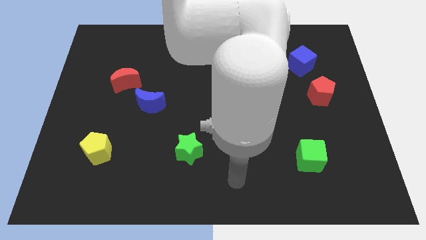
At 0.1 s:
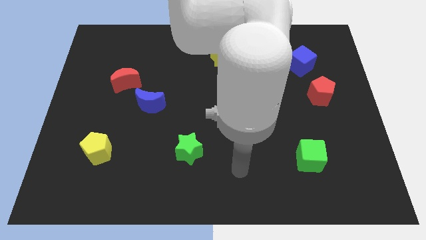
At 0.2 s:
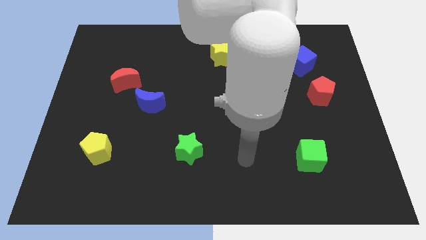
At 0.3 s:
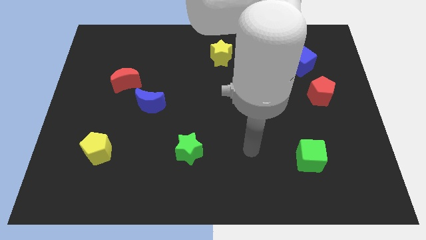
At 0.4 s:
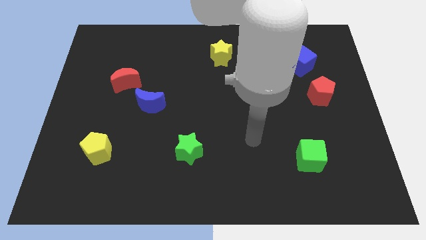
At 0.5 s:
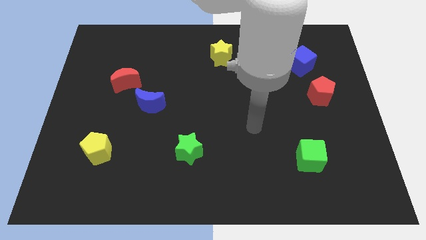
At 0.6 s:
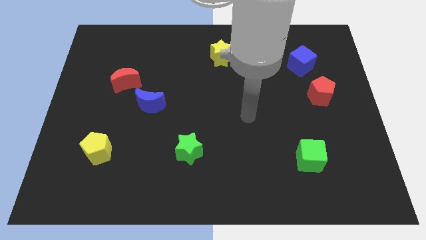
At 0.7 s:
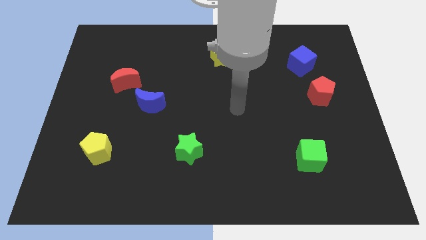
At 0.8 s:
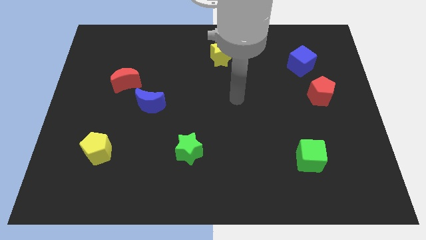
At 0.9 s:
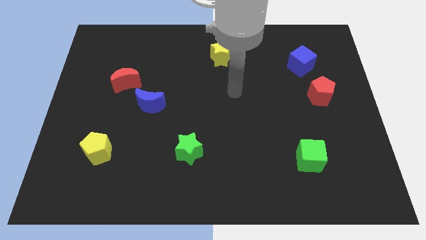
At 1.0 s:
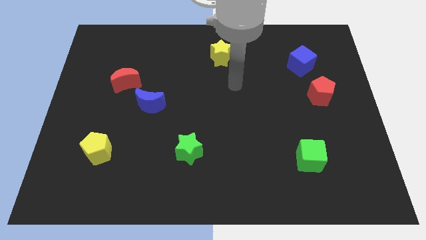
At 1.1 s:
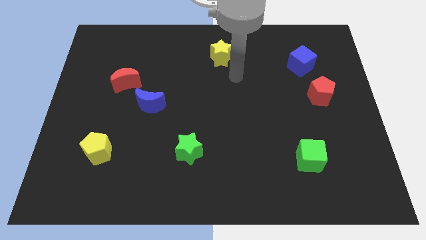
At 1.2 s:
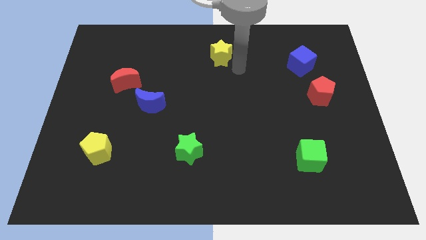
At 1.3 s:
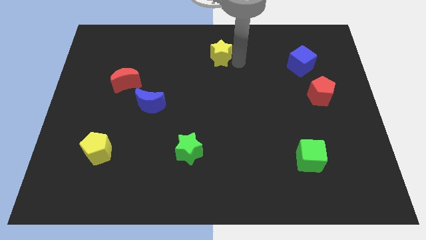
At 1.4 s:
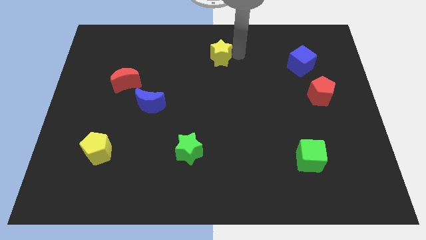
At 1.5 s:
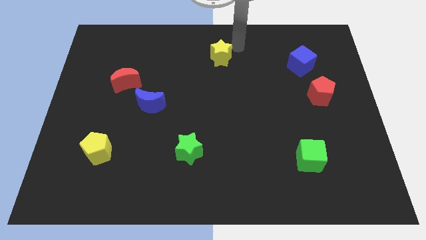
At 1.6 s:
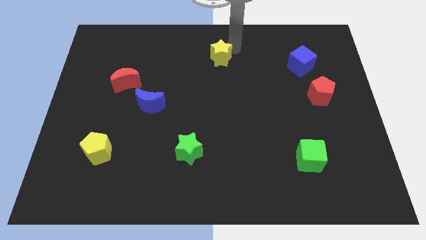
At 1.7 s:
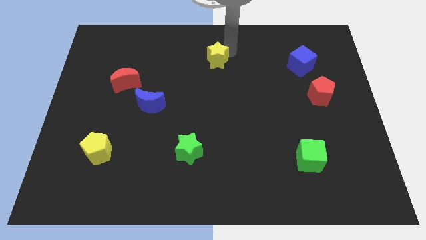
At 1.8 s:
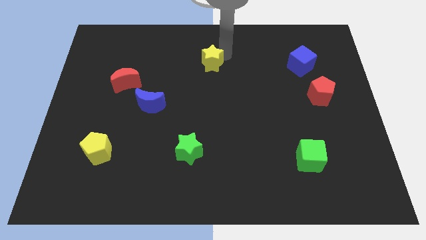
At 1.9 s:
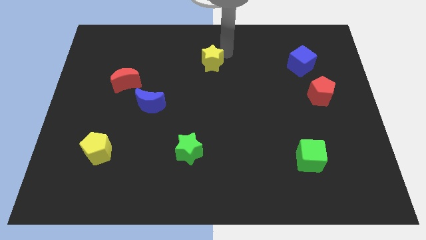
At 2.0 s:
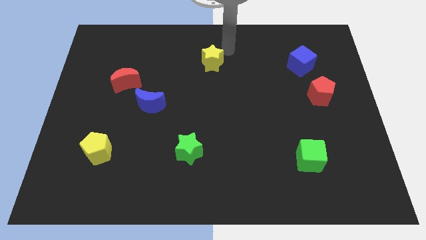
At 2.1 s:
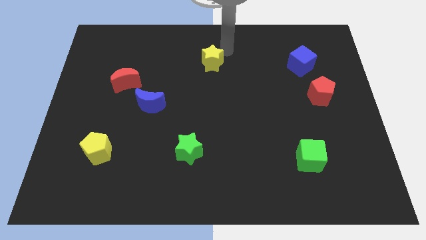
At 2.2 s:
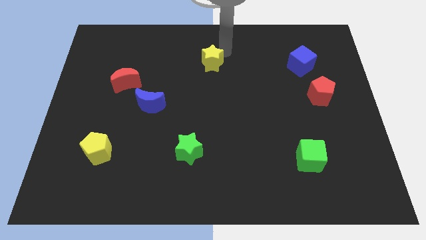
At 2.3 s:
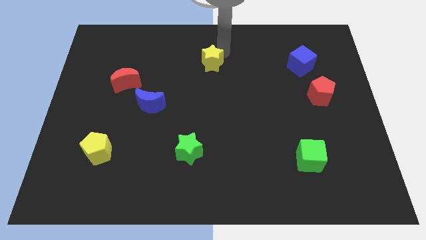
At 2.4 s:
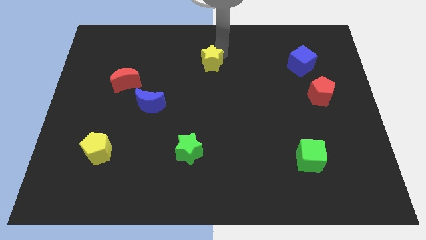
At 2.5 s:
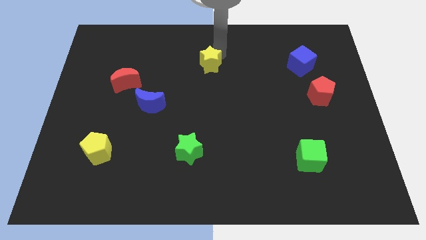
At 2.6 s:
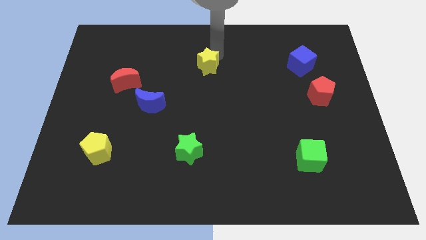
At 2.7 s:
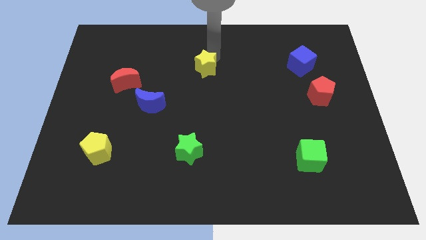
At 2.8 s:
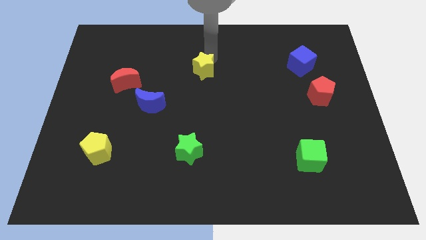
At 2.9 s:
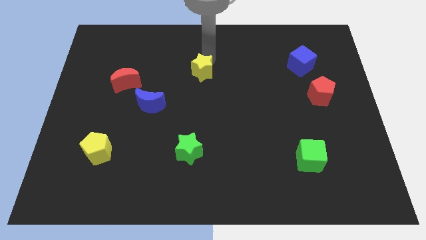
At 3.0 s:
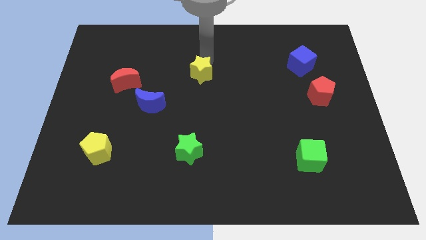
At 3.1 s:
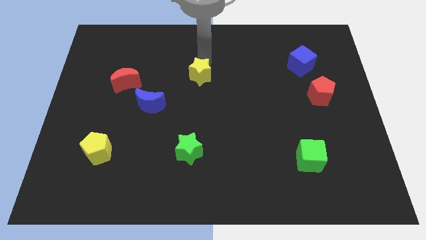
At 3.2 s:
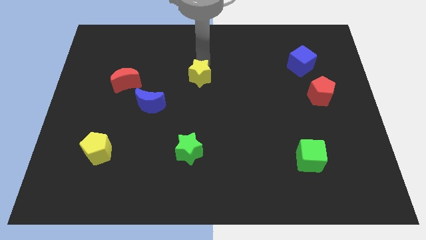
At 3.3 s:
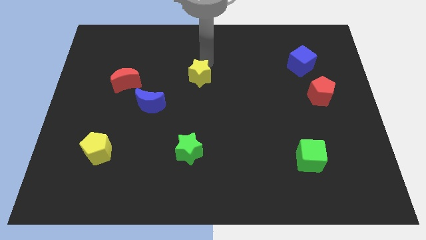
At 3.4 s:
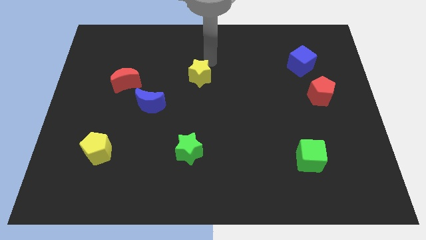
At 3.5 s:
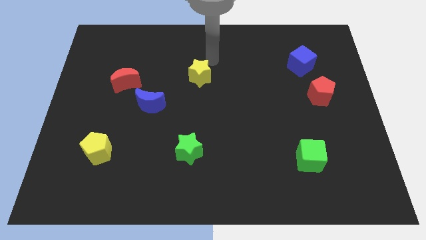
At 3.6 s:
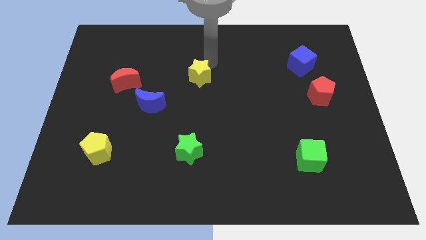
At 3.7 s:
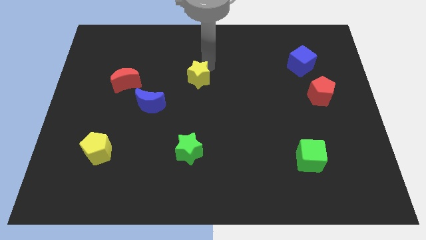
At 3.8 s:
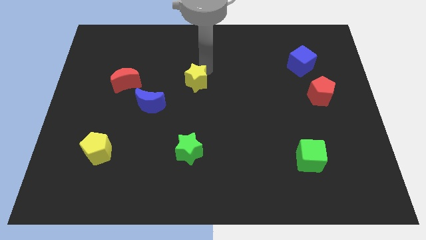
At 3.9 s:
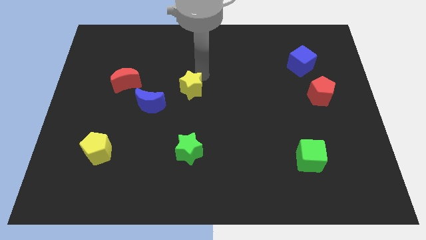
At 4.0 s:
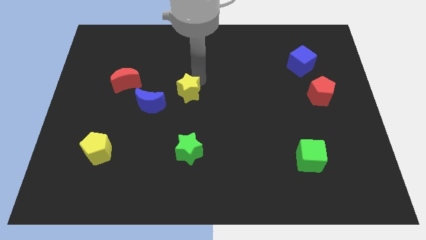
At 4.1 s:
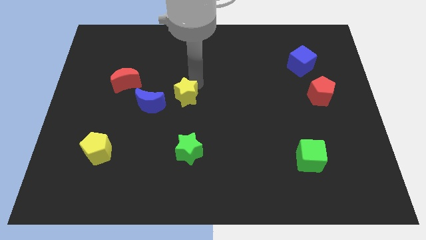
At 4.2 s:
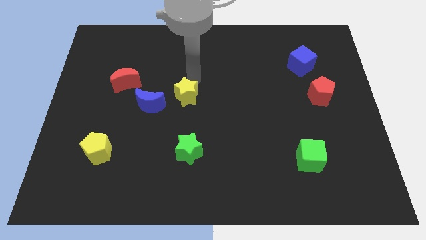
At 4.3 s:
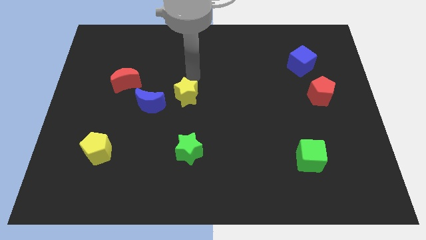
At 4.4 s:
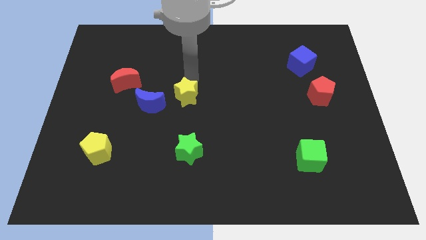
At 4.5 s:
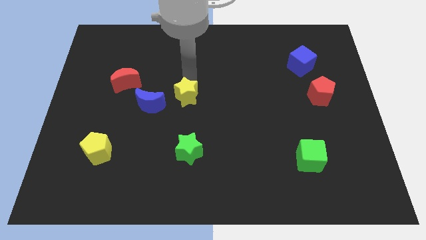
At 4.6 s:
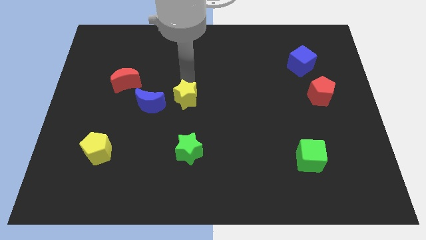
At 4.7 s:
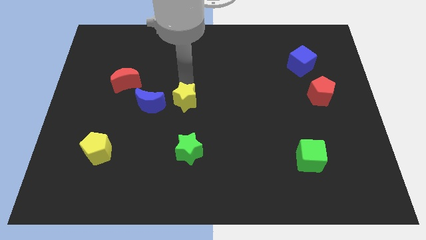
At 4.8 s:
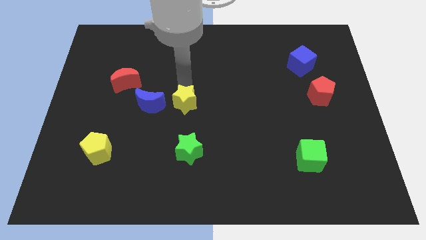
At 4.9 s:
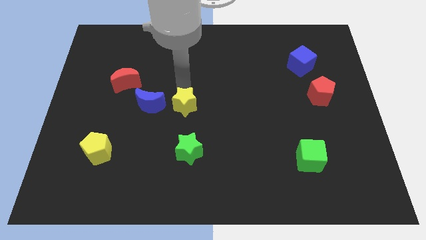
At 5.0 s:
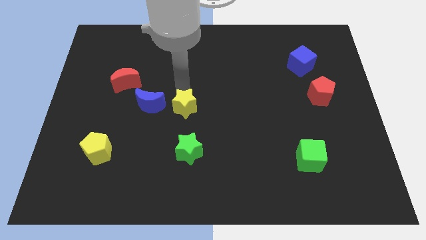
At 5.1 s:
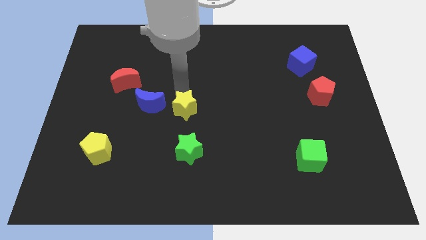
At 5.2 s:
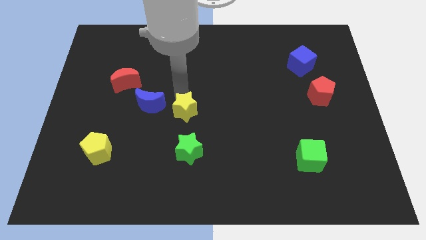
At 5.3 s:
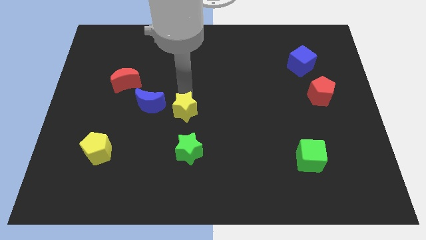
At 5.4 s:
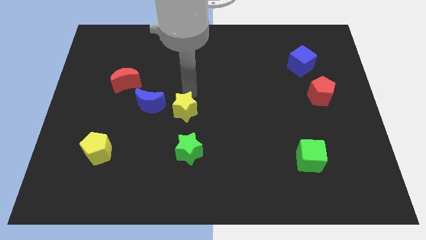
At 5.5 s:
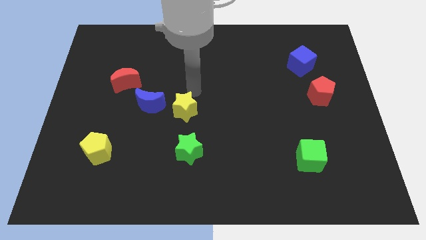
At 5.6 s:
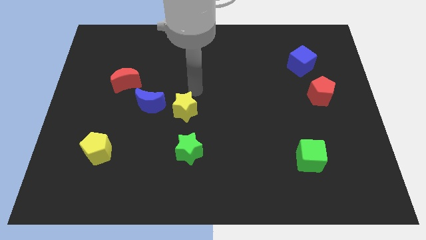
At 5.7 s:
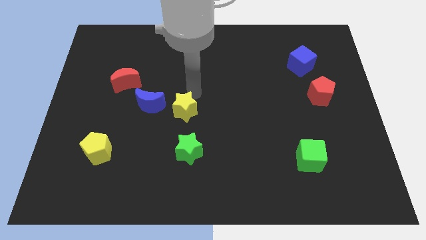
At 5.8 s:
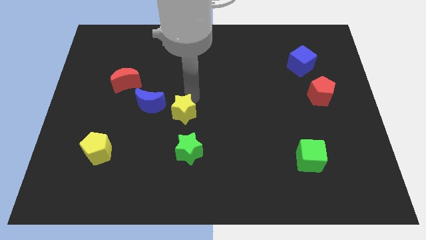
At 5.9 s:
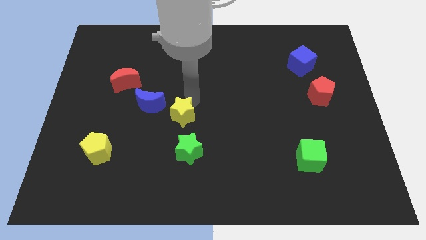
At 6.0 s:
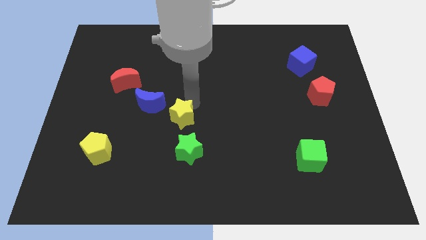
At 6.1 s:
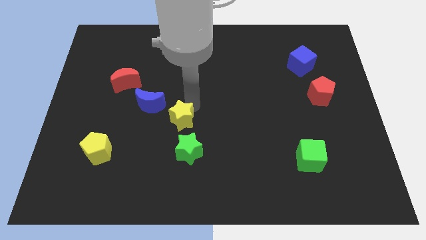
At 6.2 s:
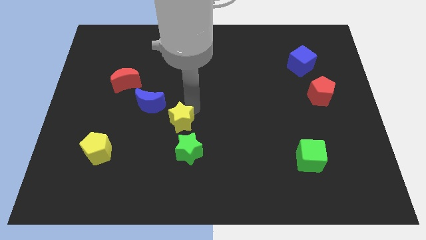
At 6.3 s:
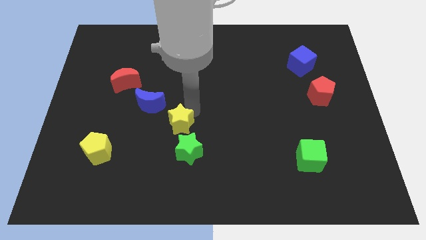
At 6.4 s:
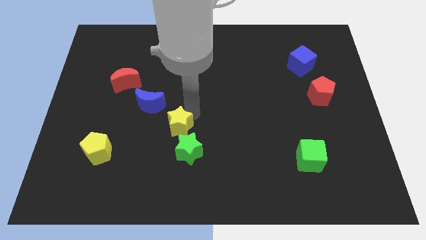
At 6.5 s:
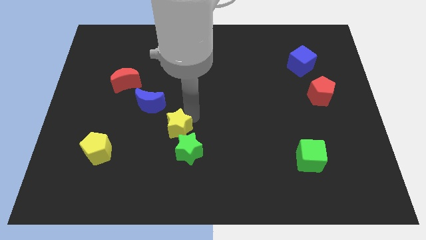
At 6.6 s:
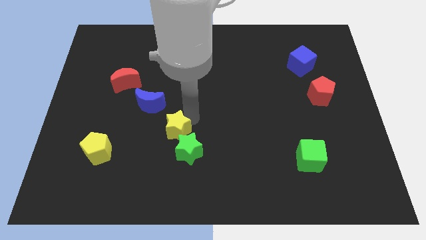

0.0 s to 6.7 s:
push the yellow star downwards and then left

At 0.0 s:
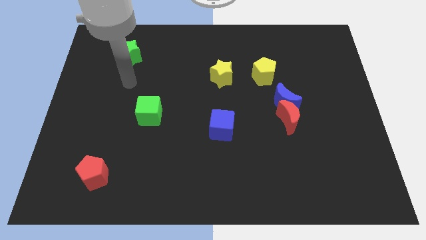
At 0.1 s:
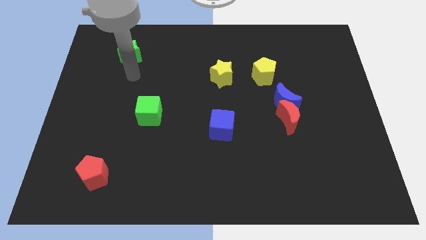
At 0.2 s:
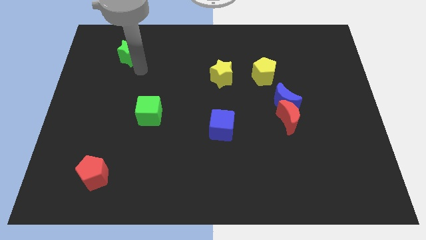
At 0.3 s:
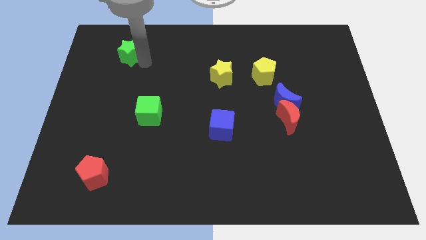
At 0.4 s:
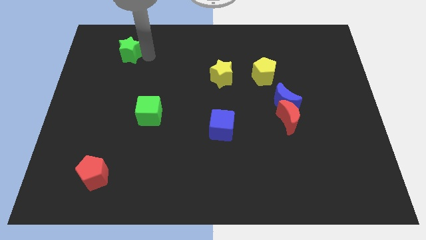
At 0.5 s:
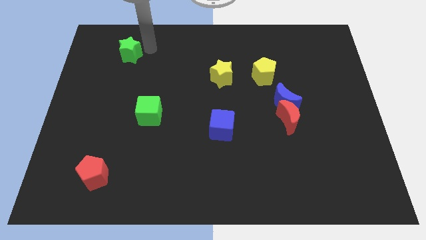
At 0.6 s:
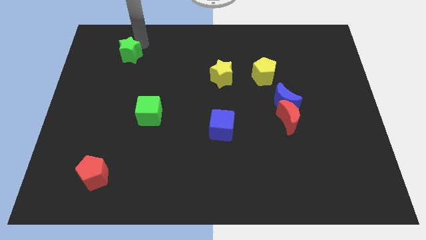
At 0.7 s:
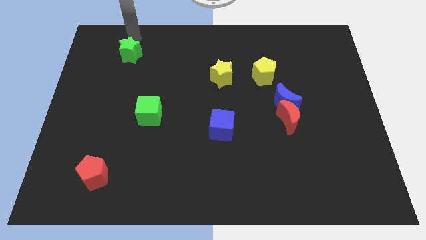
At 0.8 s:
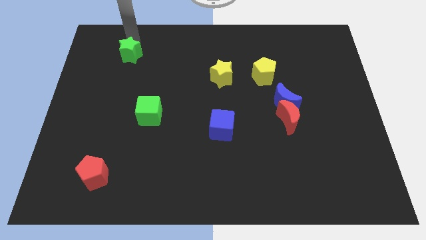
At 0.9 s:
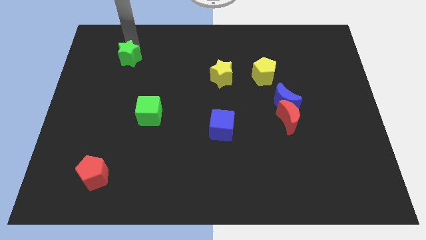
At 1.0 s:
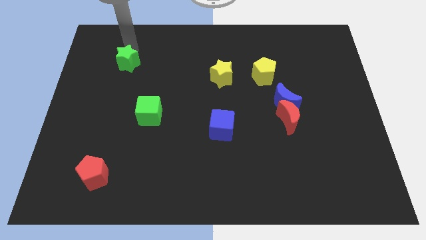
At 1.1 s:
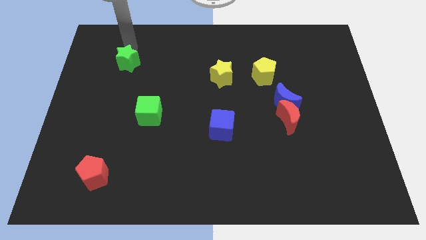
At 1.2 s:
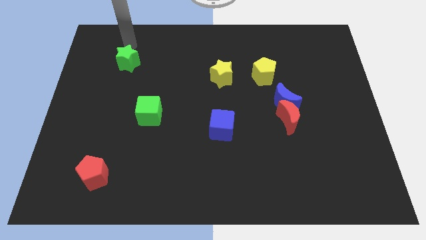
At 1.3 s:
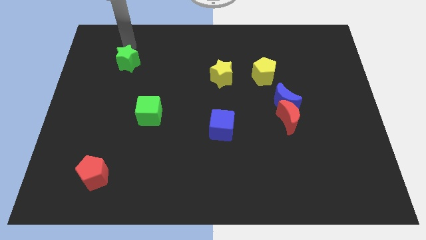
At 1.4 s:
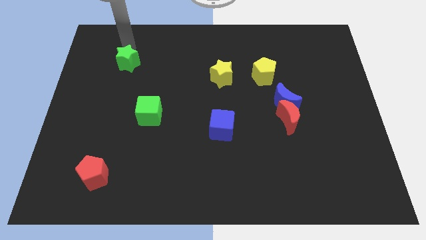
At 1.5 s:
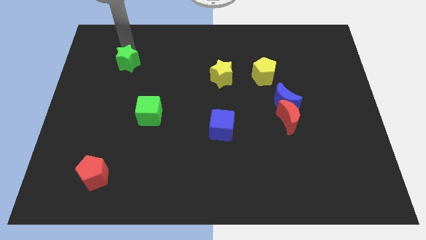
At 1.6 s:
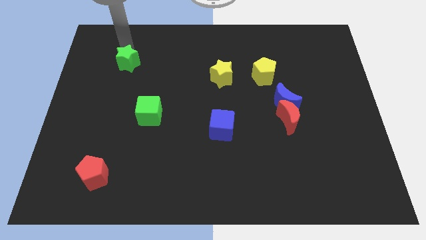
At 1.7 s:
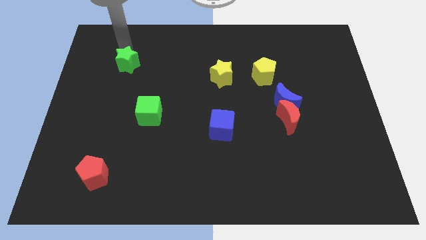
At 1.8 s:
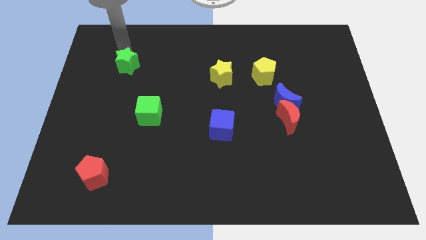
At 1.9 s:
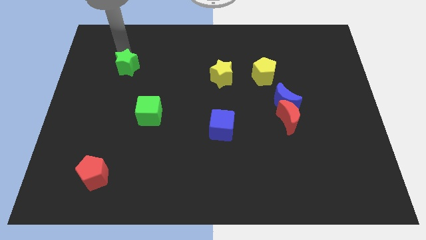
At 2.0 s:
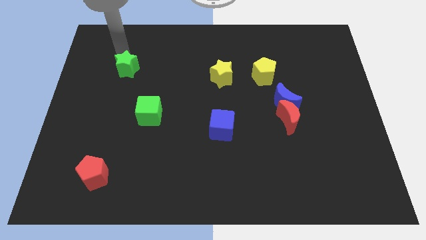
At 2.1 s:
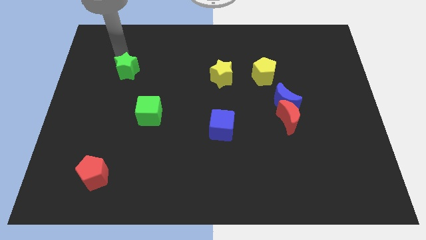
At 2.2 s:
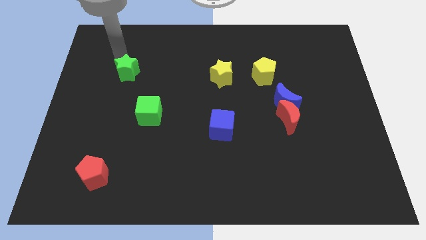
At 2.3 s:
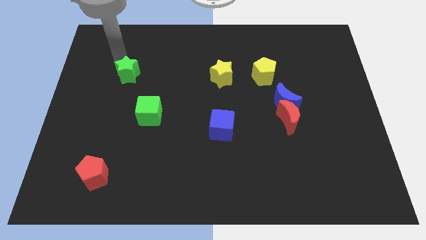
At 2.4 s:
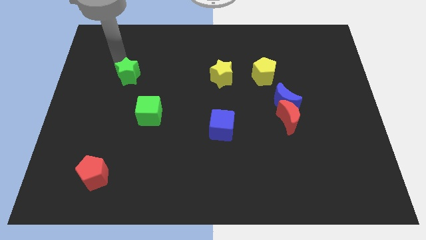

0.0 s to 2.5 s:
slightly push the green star down
